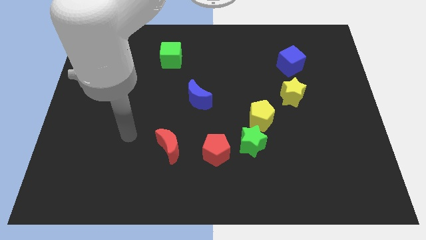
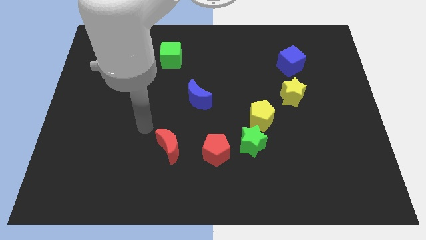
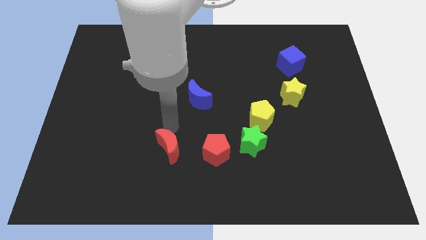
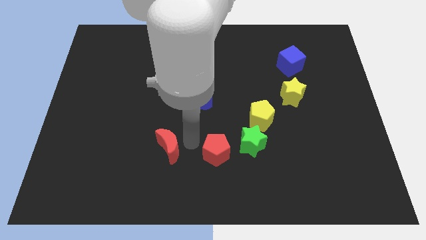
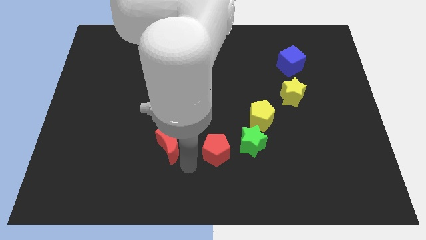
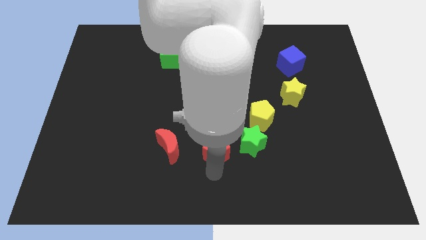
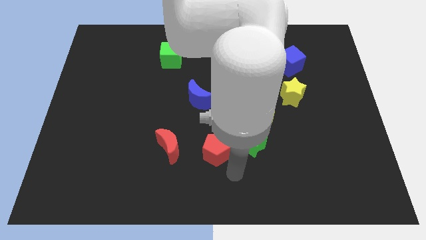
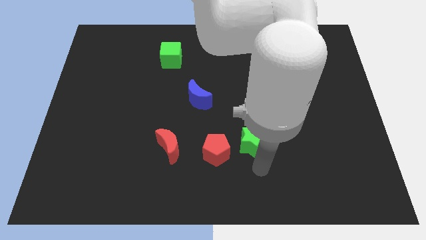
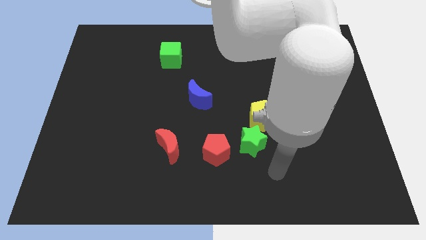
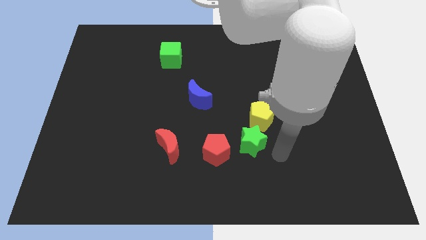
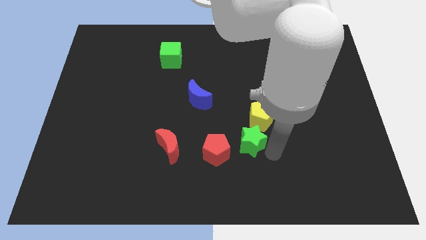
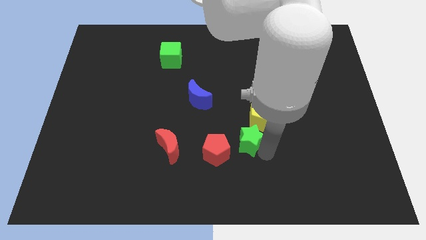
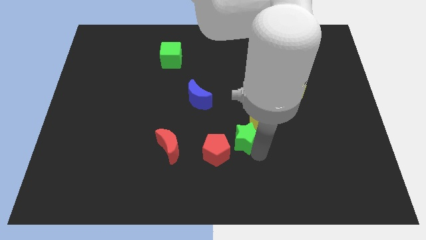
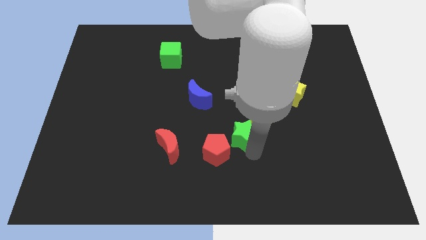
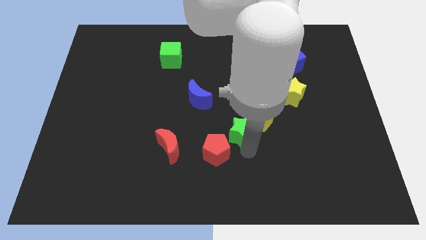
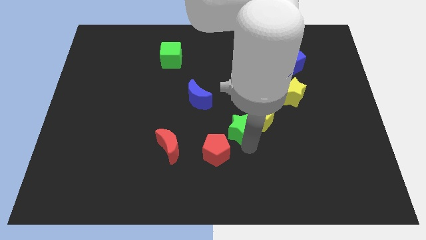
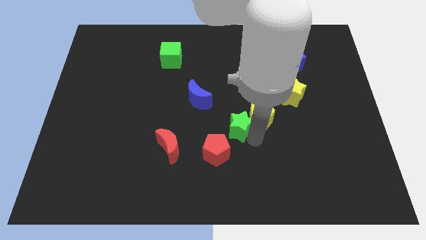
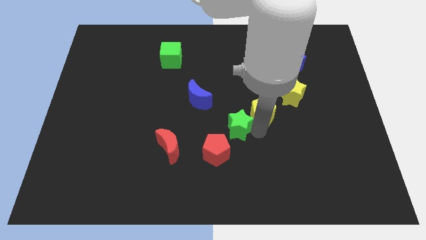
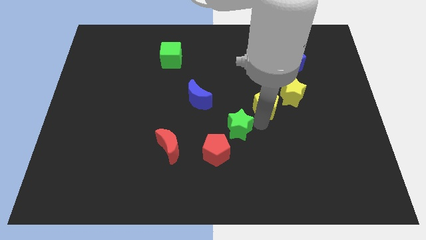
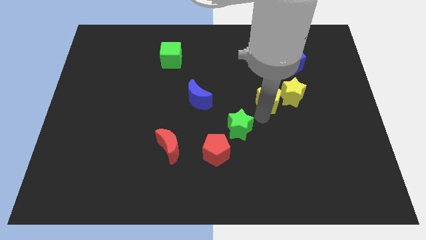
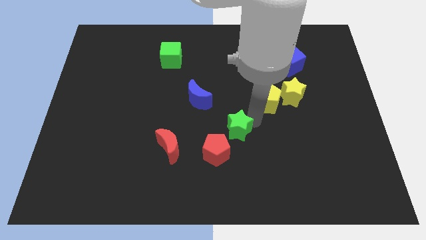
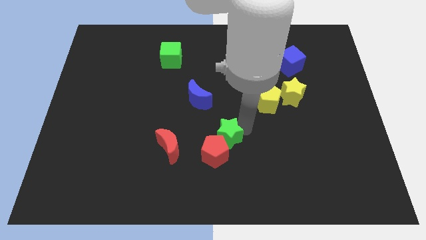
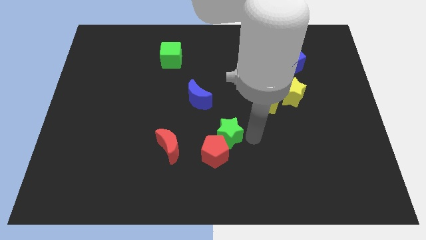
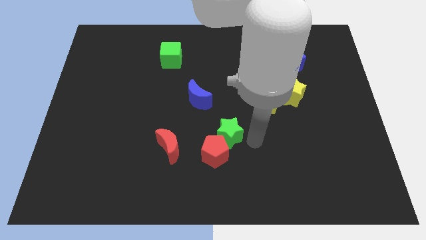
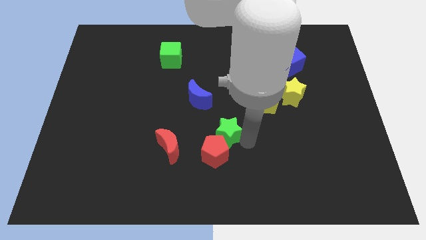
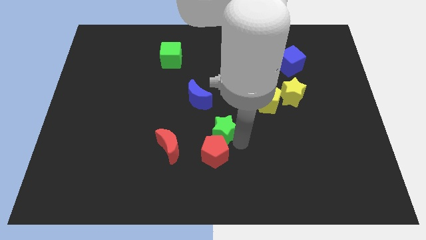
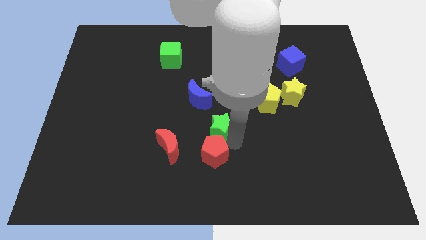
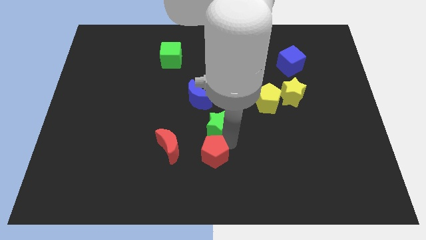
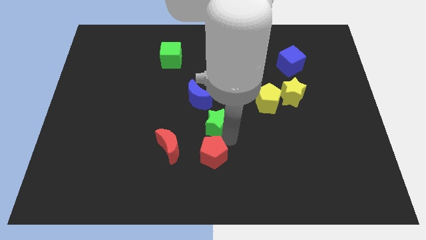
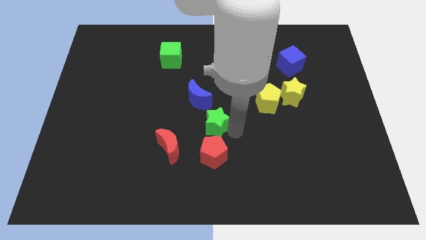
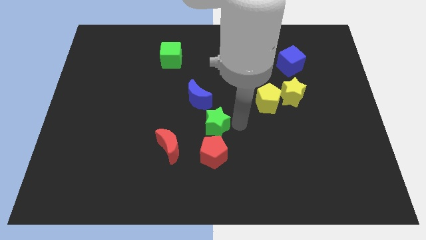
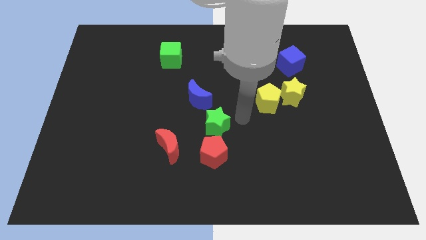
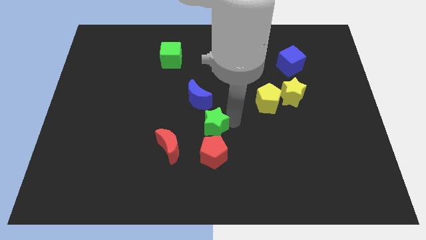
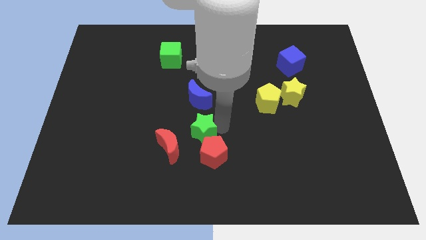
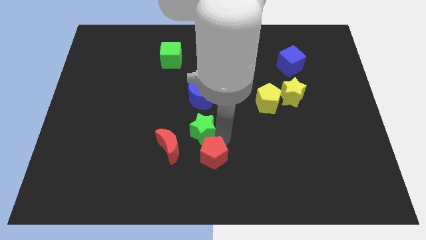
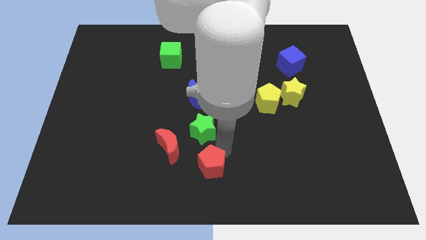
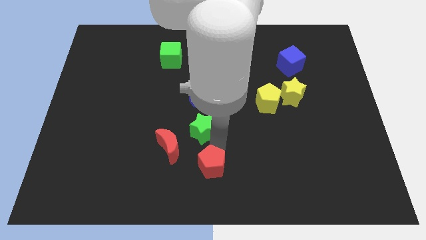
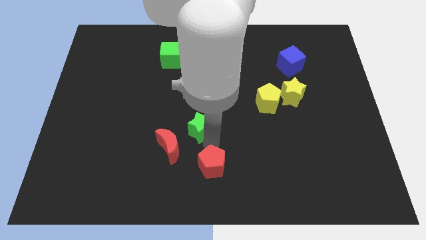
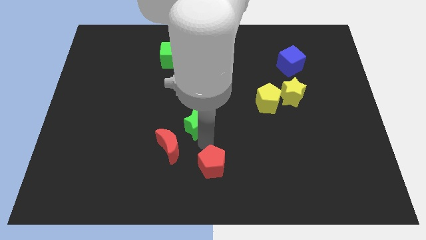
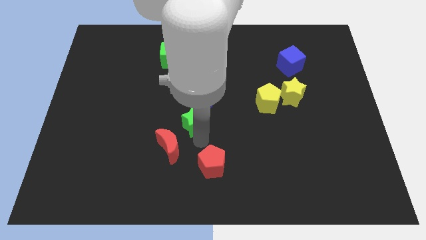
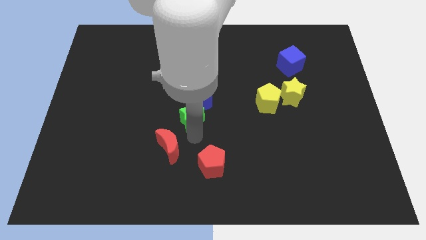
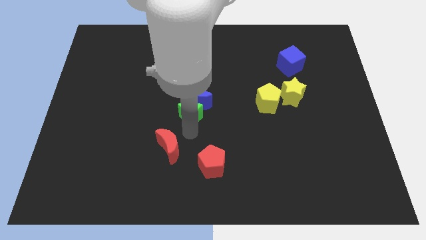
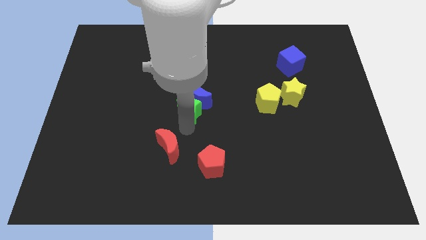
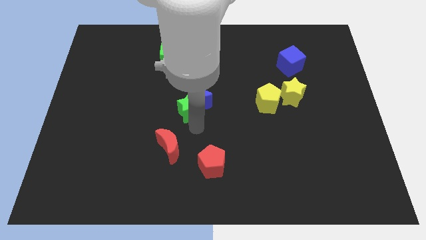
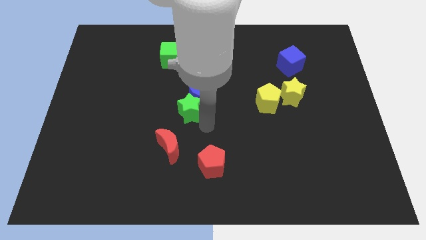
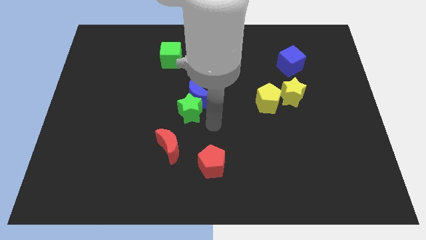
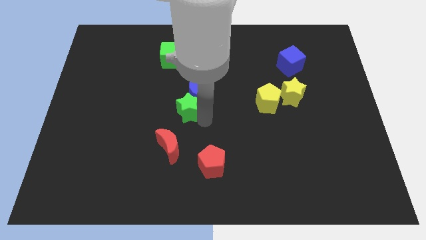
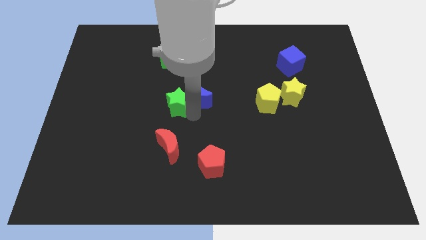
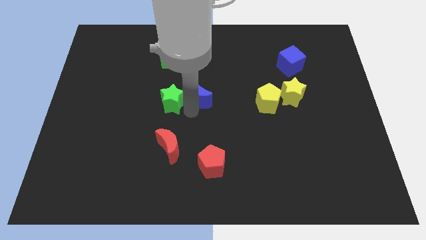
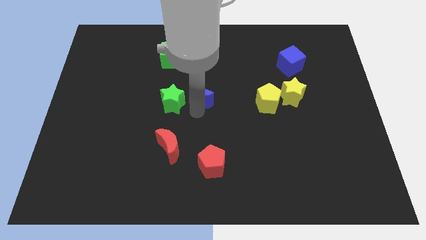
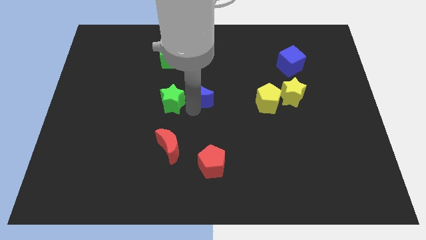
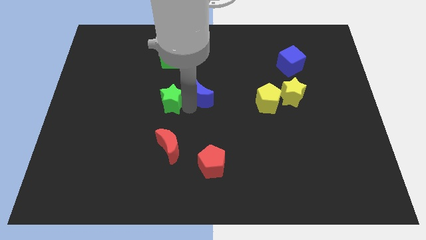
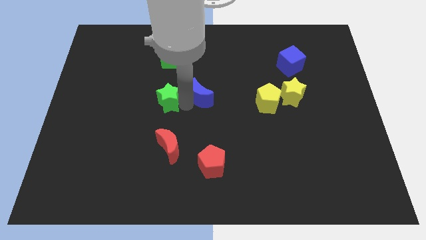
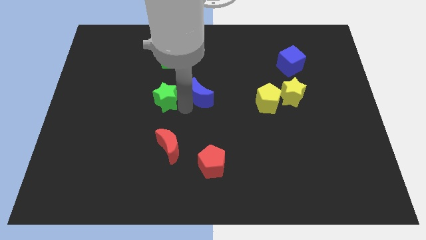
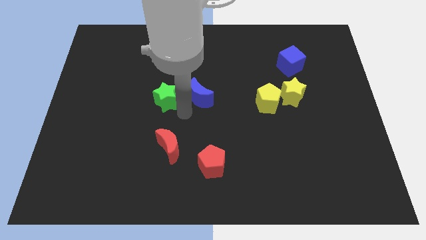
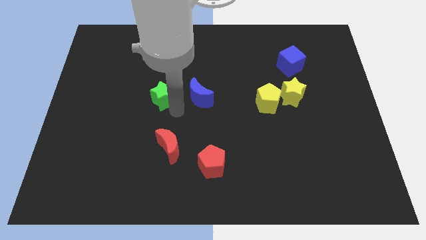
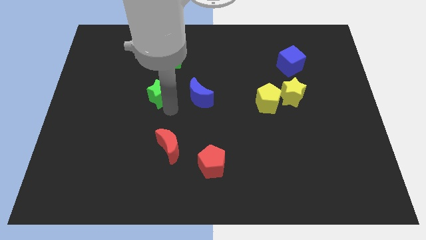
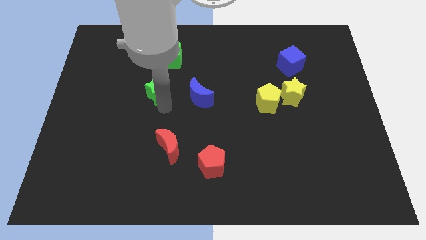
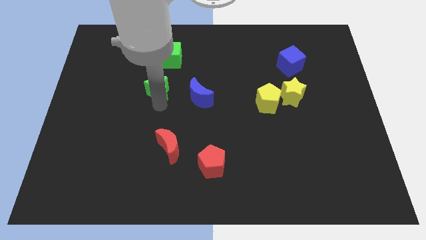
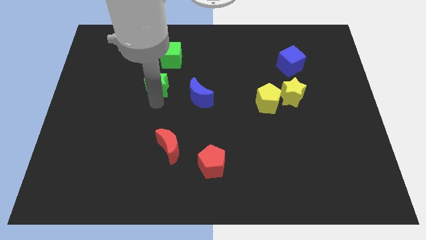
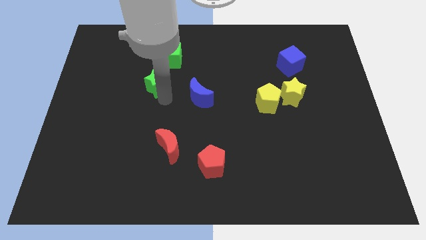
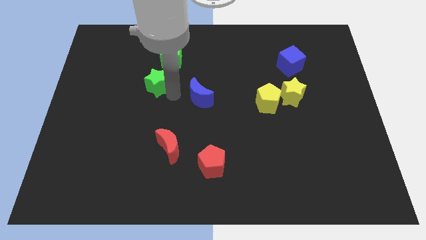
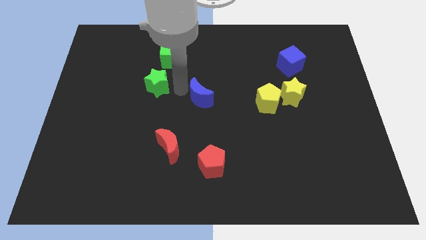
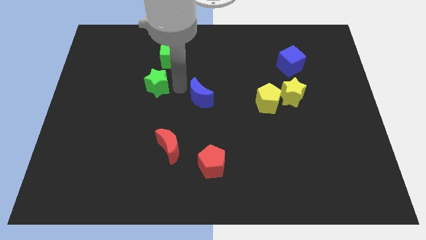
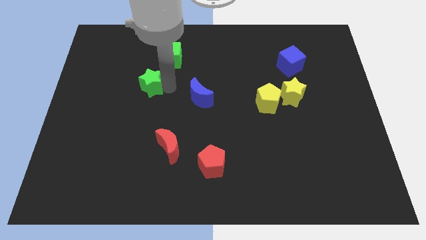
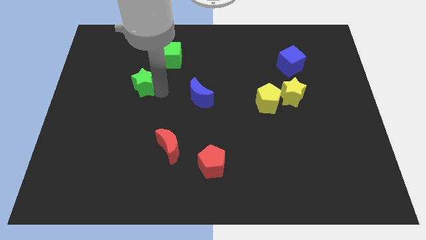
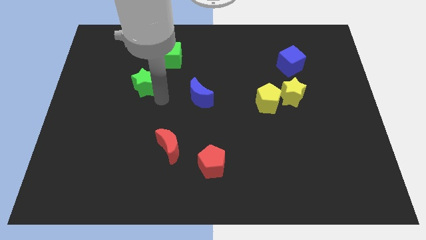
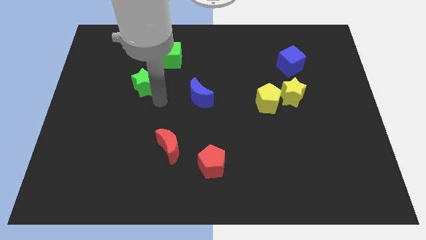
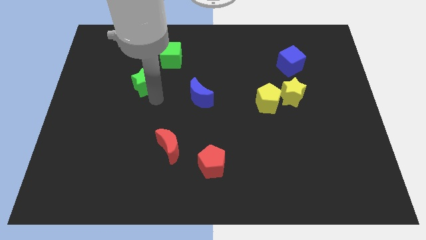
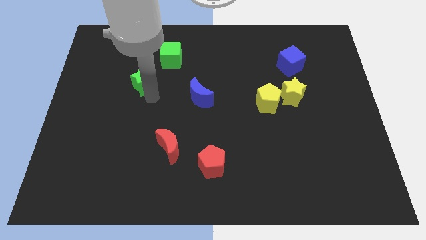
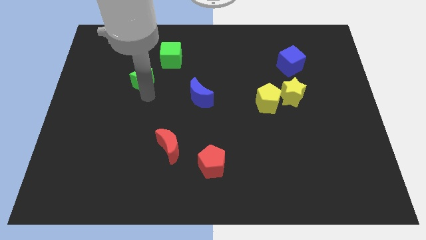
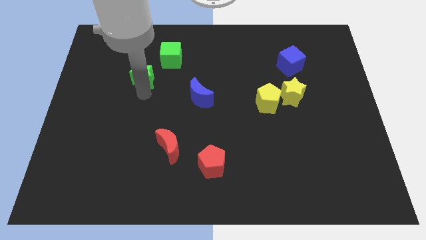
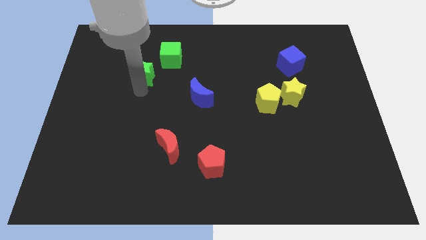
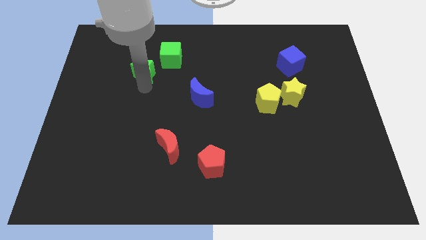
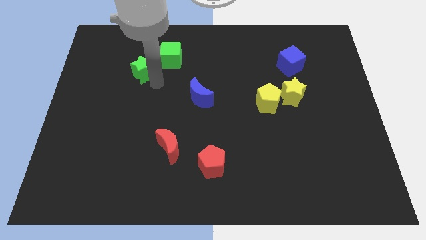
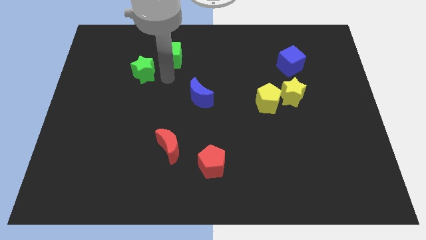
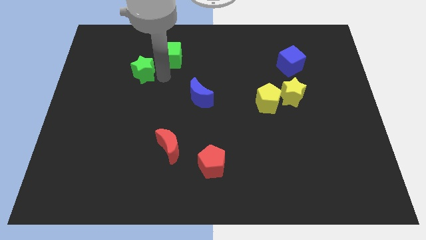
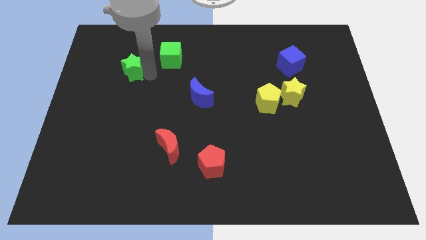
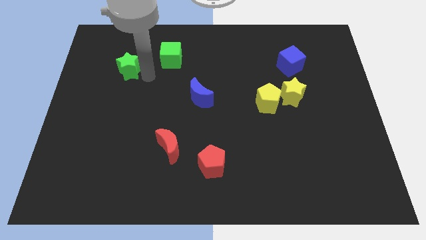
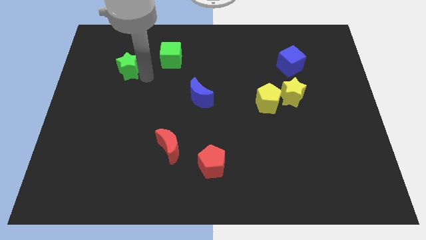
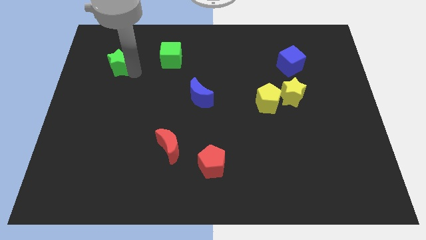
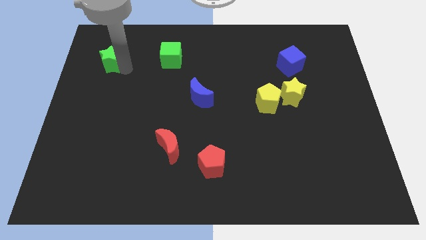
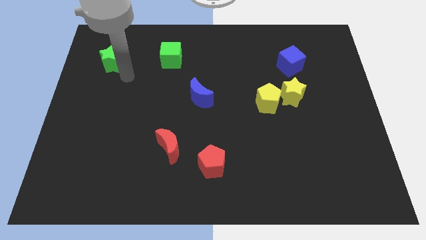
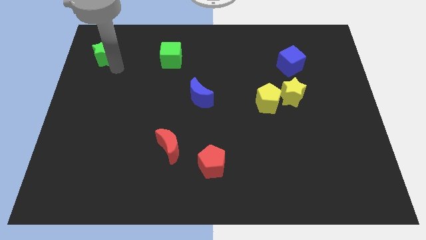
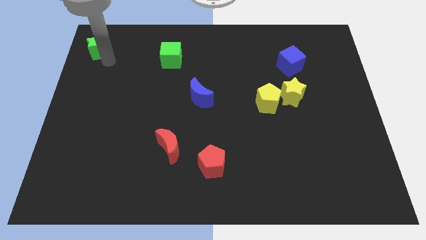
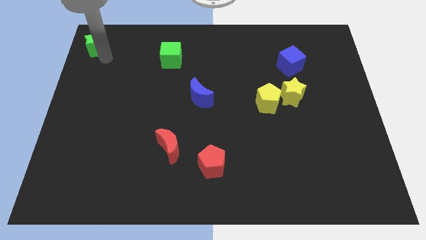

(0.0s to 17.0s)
push the green star to the top left of the board
